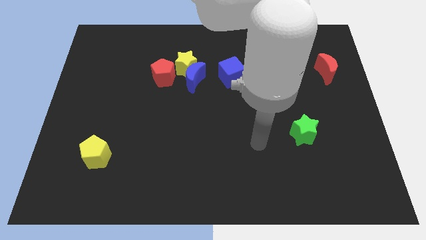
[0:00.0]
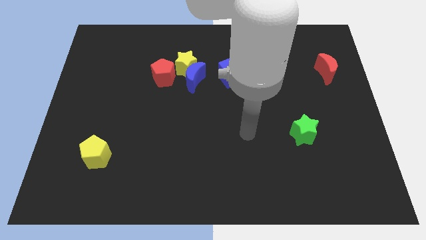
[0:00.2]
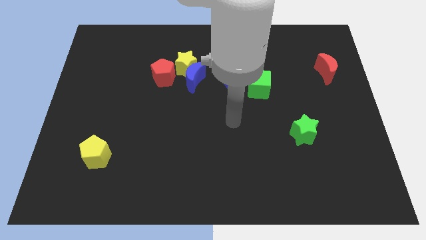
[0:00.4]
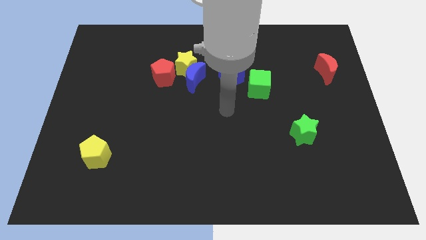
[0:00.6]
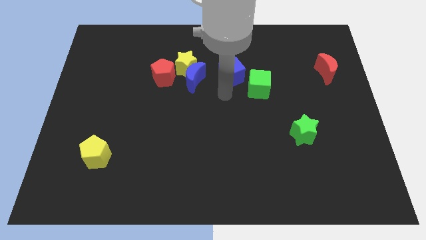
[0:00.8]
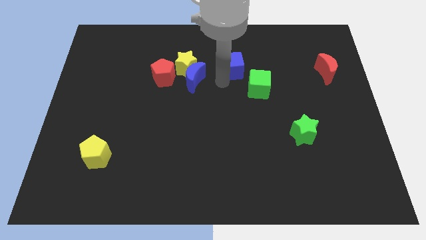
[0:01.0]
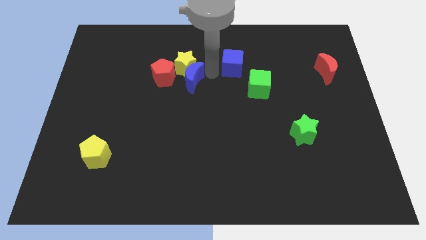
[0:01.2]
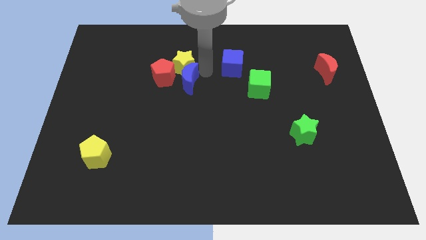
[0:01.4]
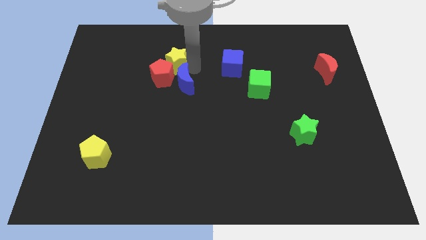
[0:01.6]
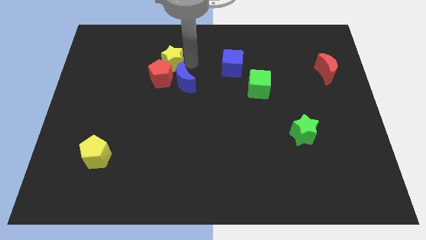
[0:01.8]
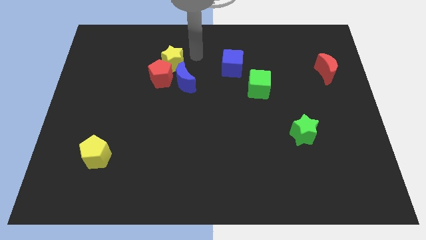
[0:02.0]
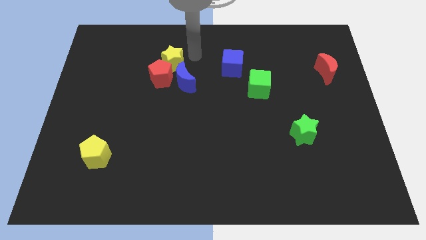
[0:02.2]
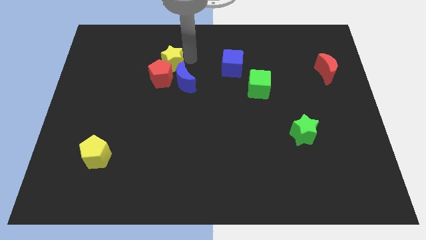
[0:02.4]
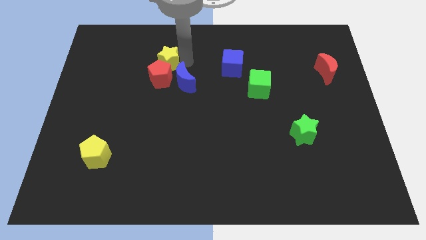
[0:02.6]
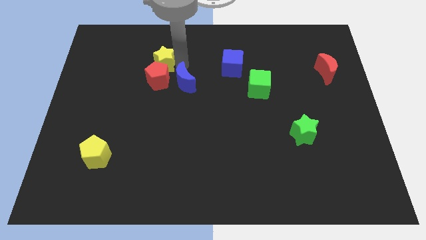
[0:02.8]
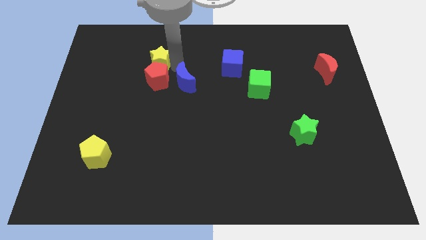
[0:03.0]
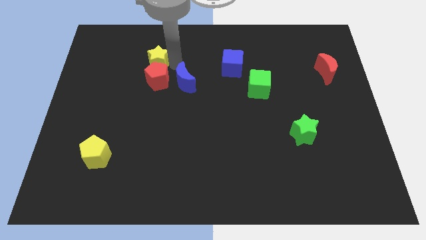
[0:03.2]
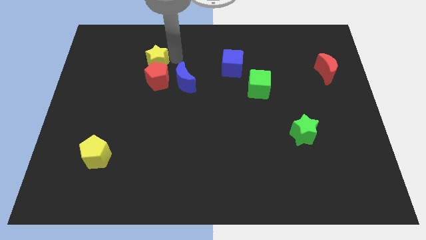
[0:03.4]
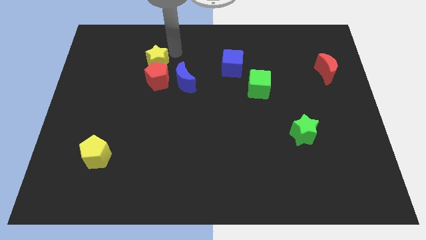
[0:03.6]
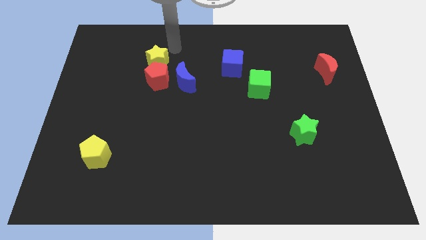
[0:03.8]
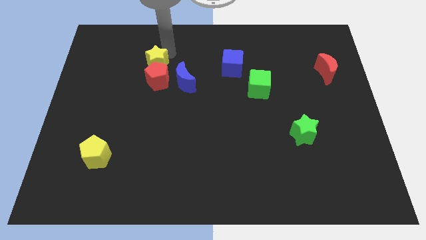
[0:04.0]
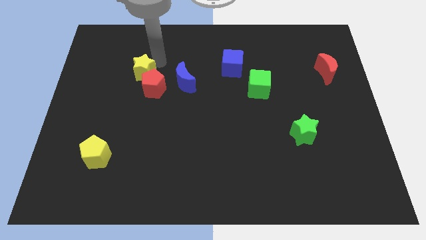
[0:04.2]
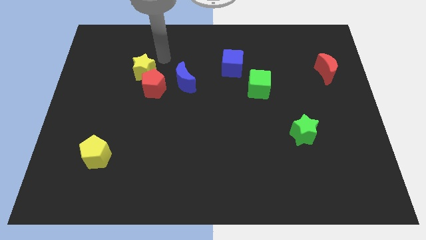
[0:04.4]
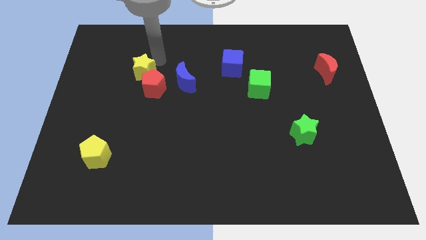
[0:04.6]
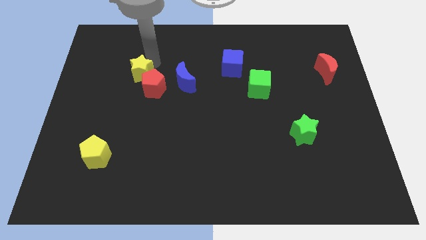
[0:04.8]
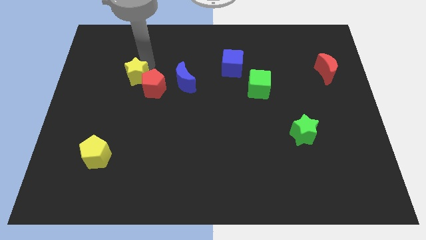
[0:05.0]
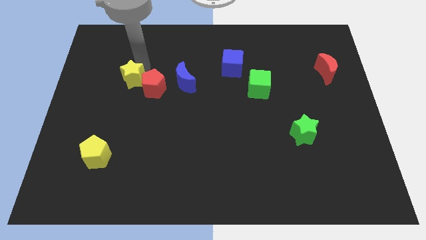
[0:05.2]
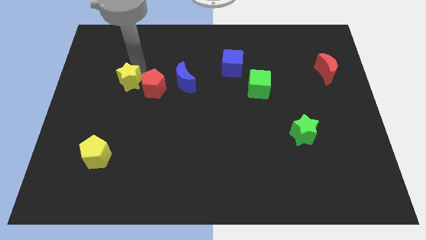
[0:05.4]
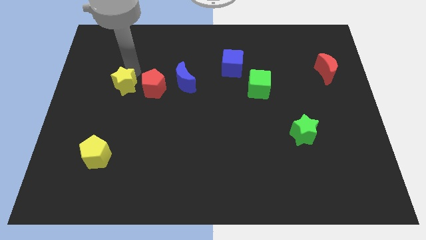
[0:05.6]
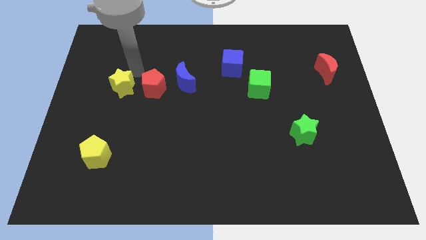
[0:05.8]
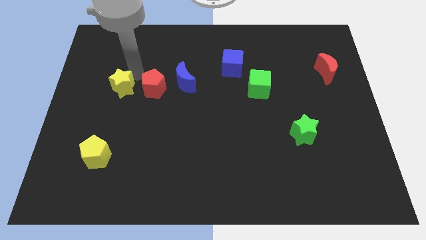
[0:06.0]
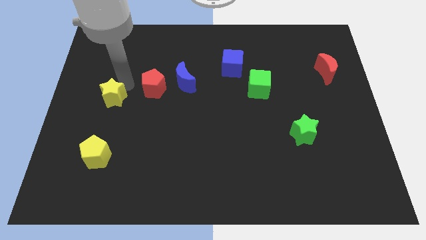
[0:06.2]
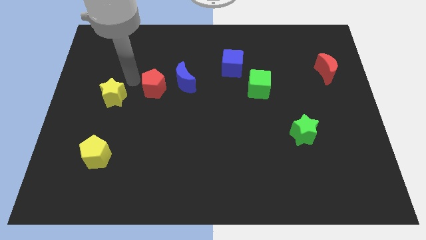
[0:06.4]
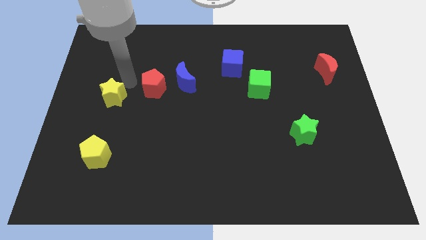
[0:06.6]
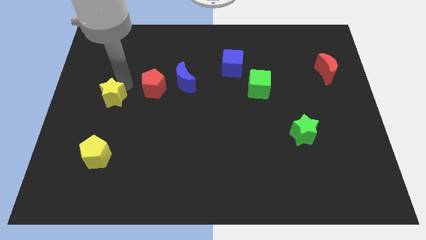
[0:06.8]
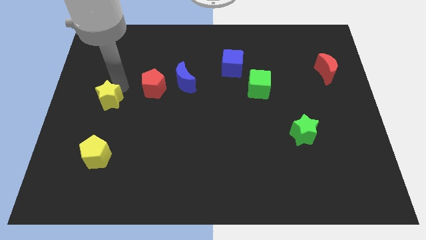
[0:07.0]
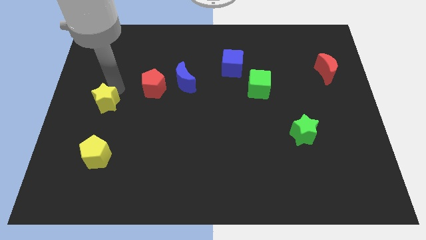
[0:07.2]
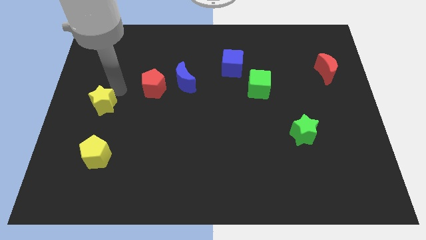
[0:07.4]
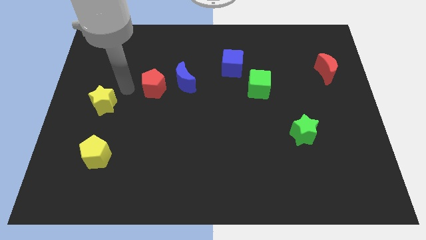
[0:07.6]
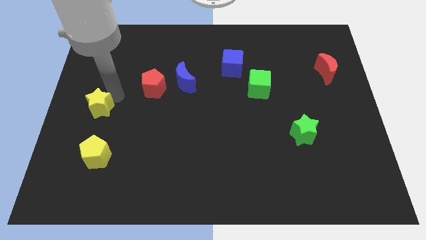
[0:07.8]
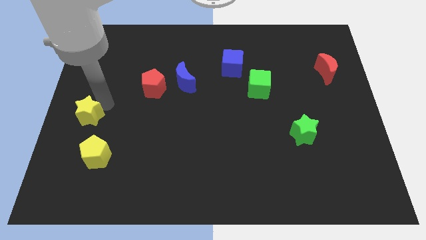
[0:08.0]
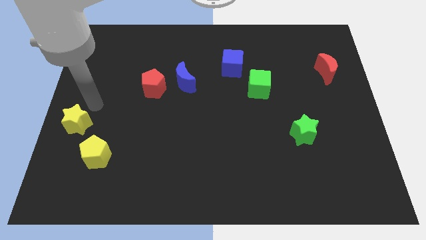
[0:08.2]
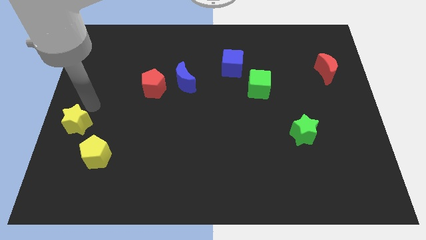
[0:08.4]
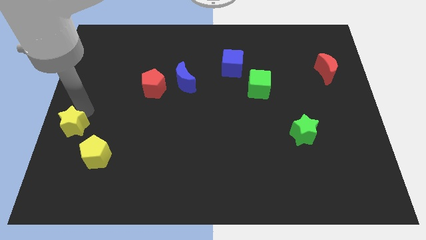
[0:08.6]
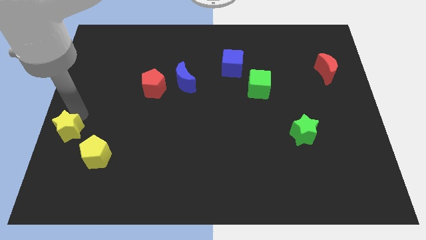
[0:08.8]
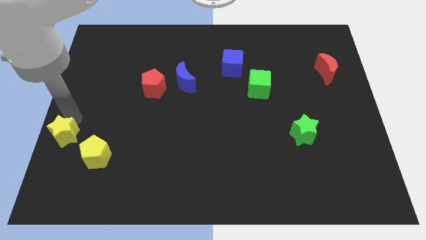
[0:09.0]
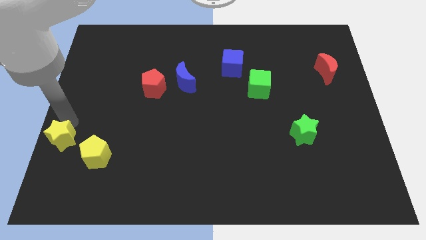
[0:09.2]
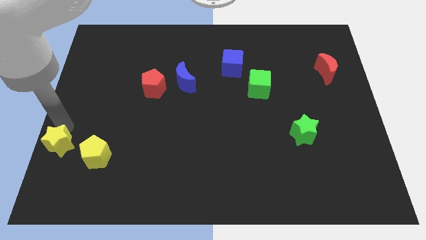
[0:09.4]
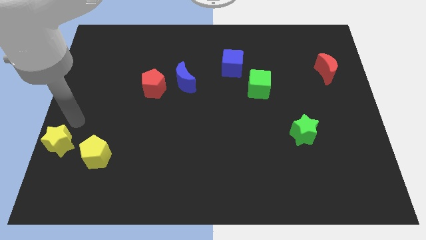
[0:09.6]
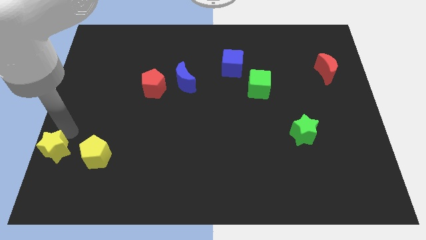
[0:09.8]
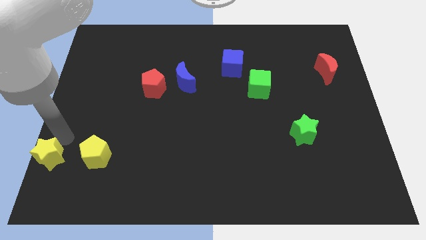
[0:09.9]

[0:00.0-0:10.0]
push the yellow star to the bottom left of the board

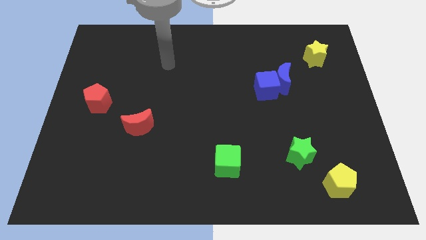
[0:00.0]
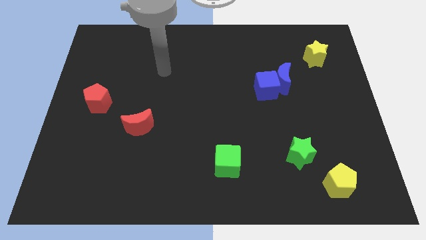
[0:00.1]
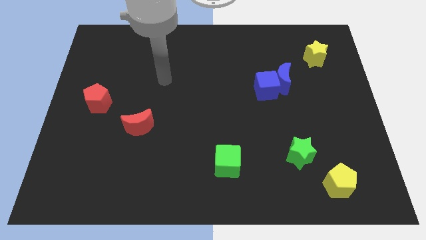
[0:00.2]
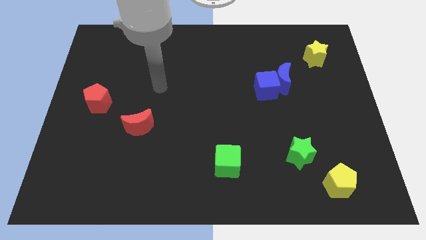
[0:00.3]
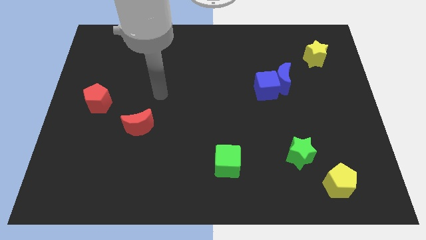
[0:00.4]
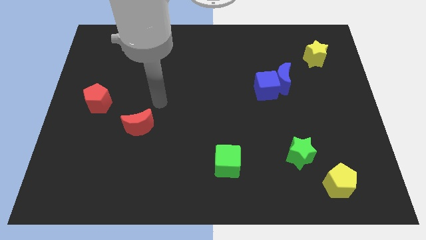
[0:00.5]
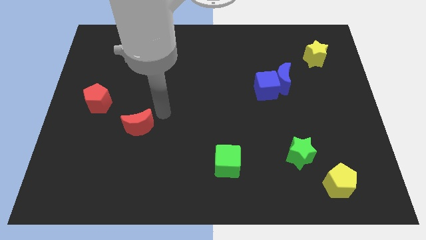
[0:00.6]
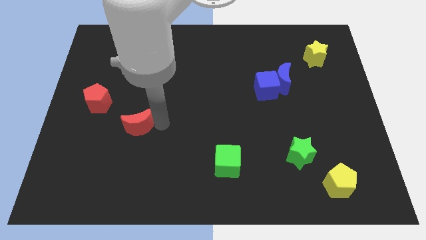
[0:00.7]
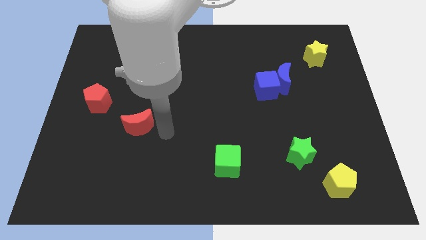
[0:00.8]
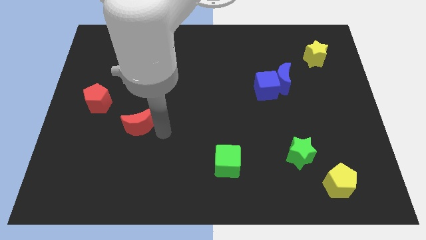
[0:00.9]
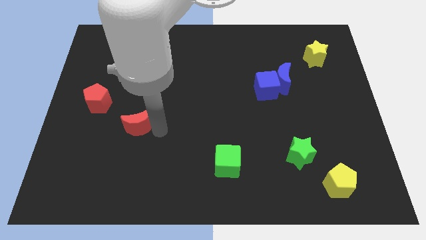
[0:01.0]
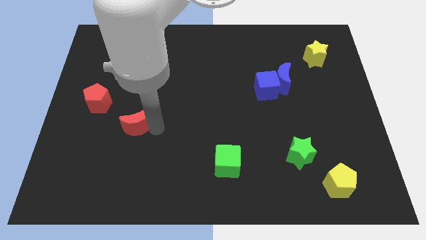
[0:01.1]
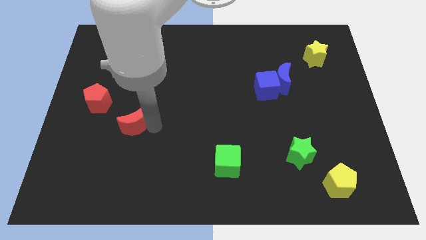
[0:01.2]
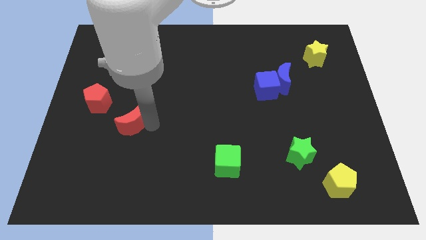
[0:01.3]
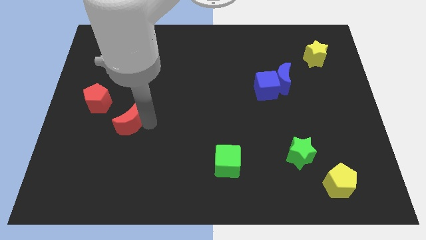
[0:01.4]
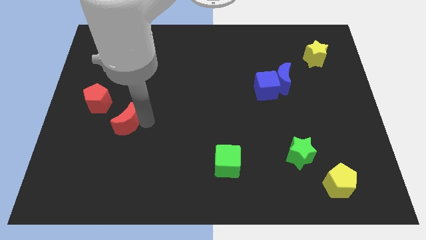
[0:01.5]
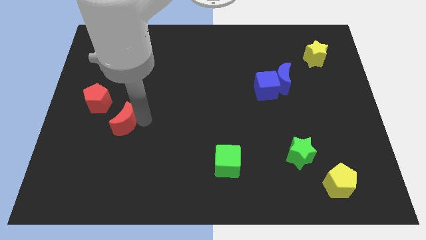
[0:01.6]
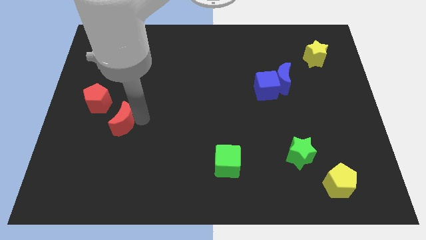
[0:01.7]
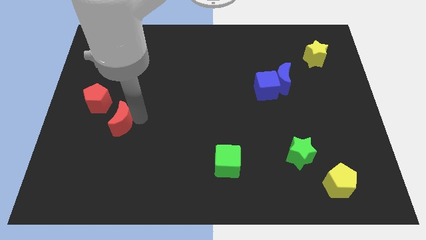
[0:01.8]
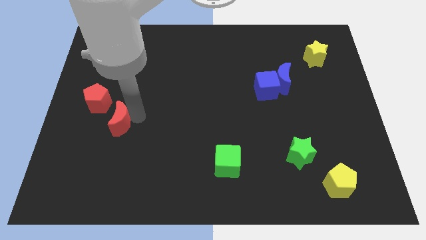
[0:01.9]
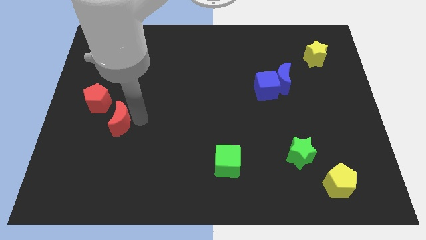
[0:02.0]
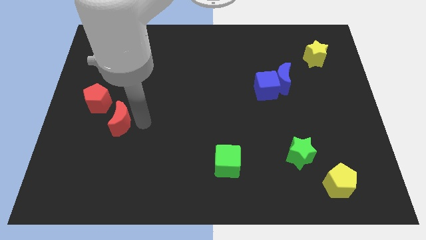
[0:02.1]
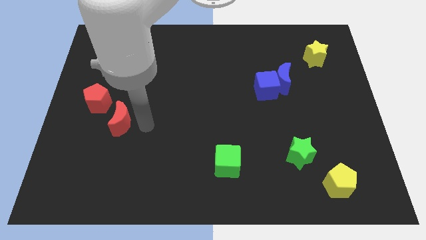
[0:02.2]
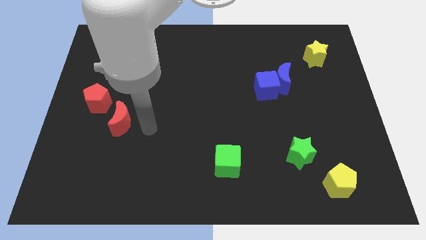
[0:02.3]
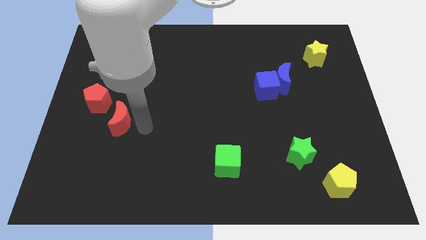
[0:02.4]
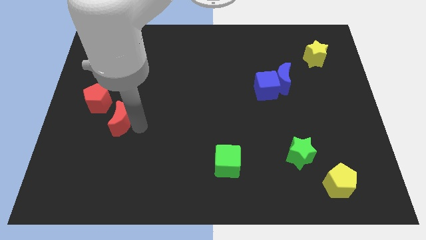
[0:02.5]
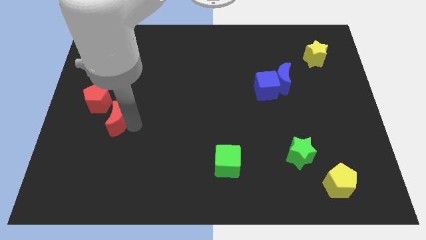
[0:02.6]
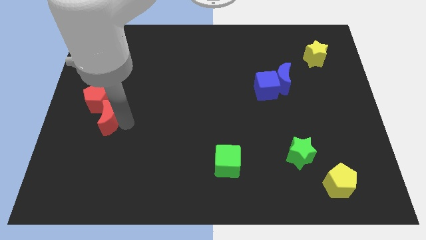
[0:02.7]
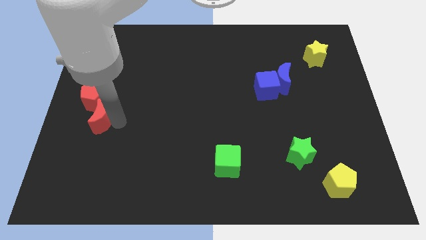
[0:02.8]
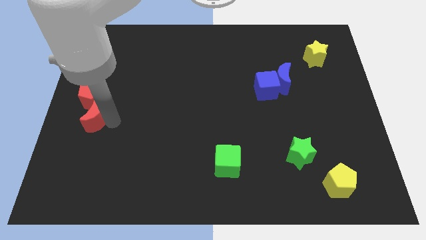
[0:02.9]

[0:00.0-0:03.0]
put the red moon to the left side
